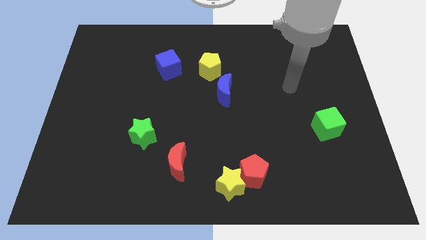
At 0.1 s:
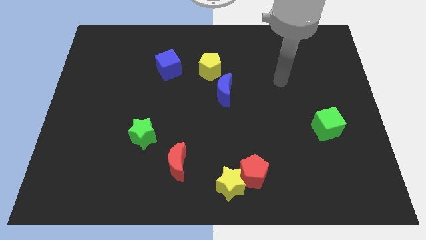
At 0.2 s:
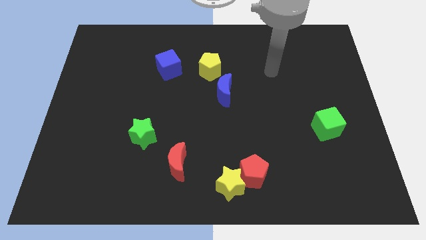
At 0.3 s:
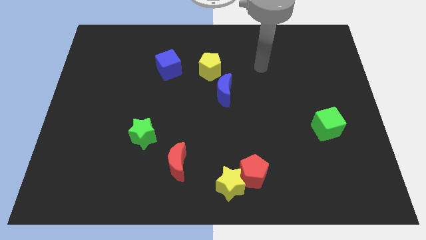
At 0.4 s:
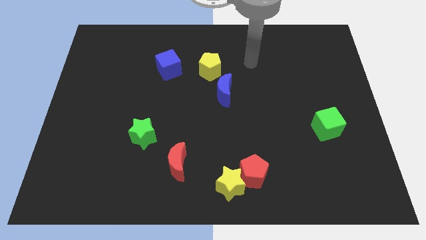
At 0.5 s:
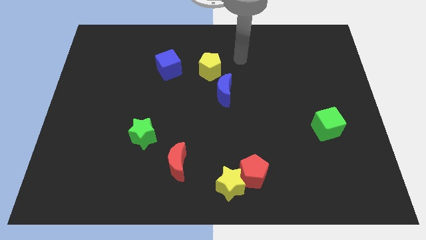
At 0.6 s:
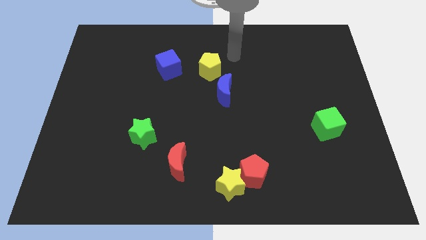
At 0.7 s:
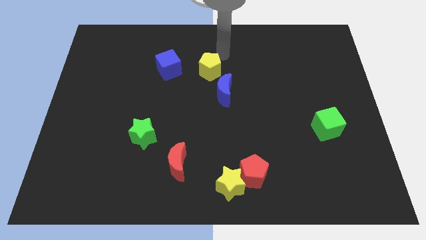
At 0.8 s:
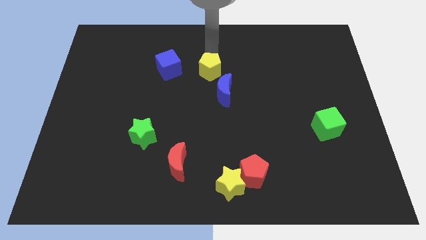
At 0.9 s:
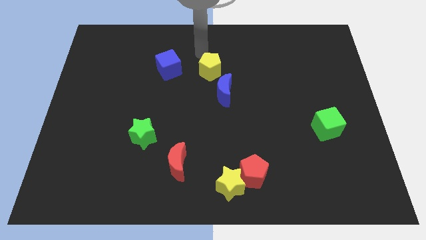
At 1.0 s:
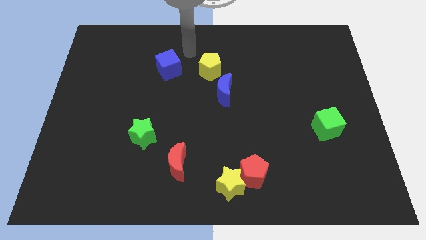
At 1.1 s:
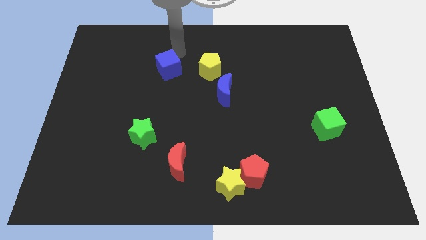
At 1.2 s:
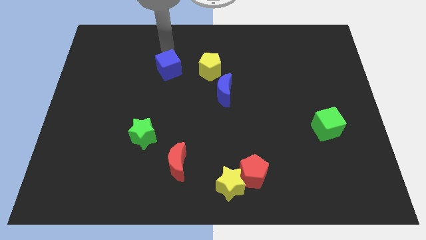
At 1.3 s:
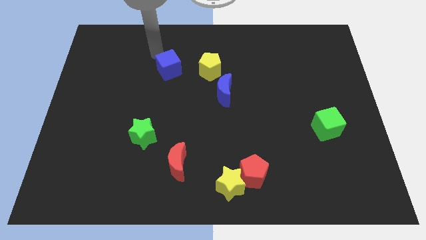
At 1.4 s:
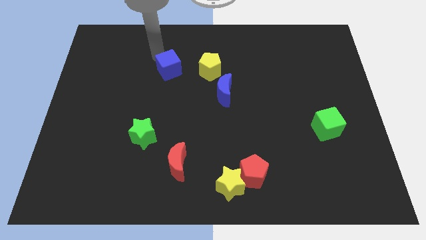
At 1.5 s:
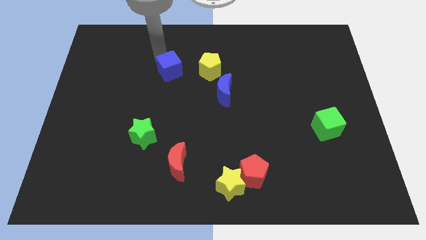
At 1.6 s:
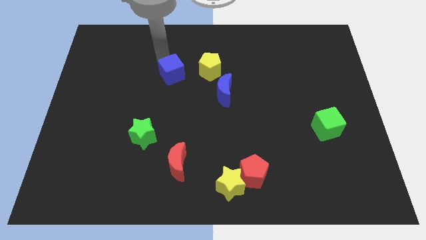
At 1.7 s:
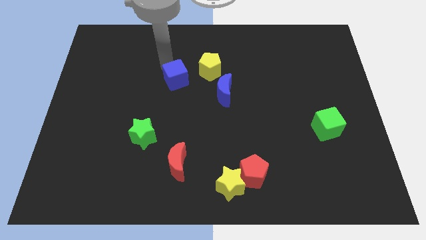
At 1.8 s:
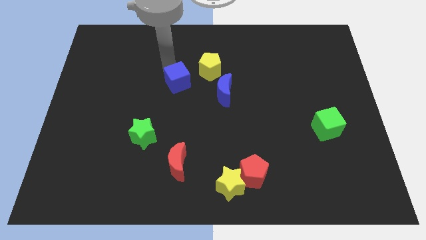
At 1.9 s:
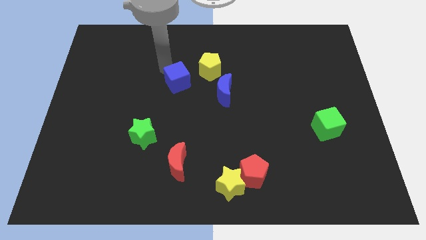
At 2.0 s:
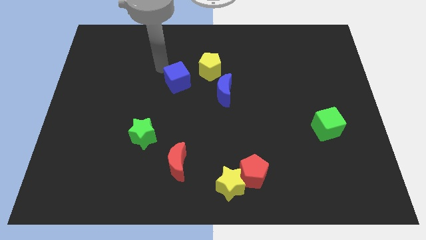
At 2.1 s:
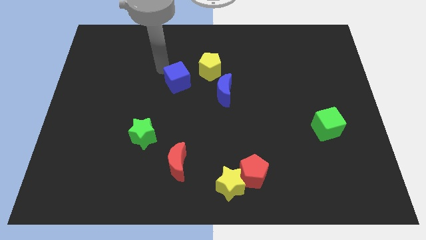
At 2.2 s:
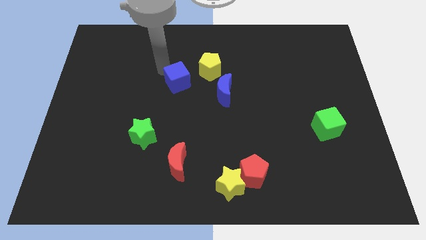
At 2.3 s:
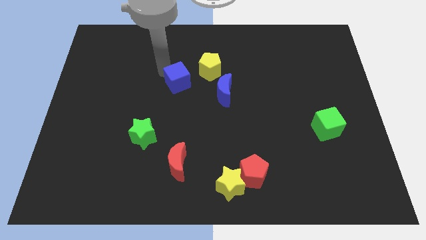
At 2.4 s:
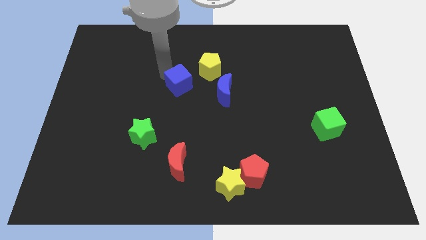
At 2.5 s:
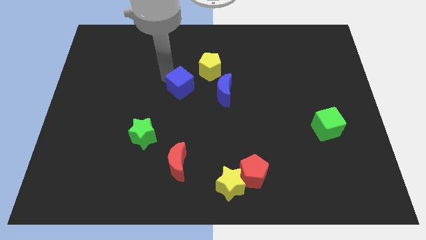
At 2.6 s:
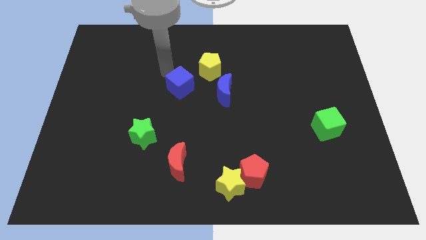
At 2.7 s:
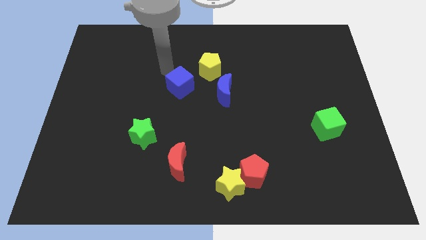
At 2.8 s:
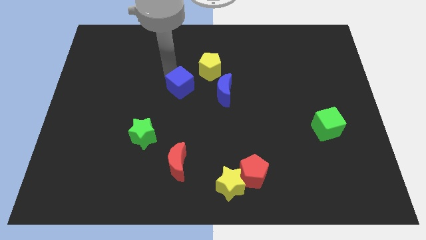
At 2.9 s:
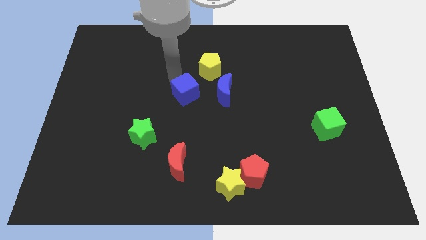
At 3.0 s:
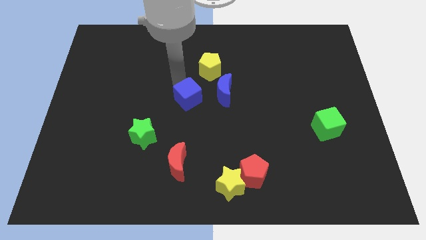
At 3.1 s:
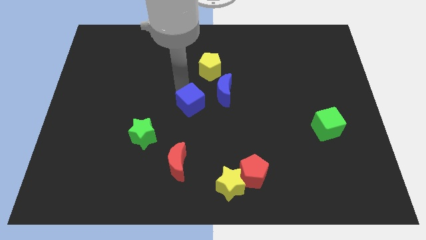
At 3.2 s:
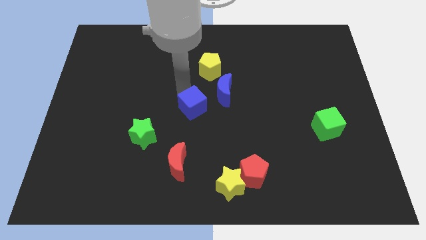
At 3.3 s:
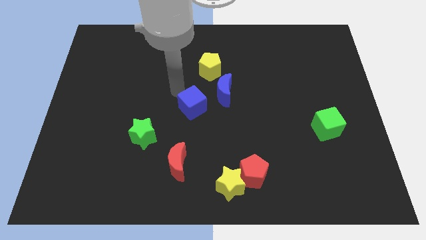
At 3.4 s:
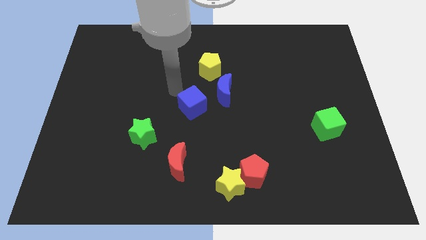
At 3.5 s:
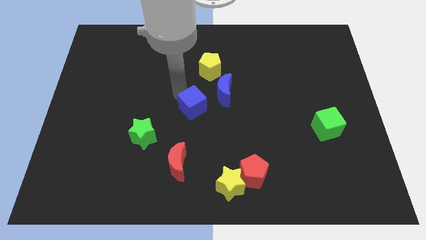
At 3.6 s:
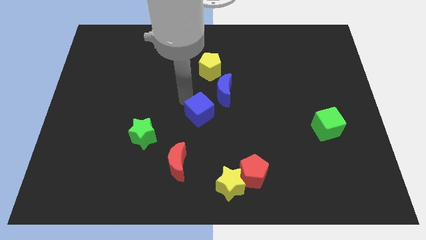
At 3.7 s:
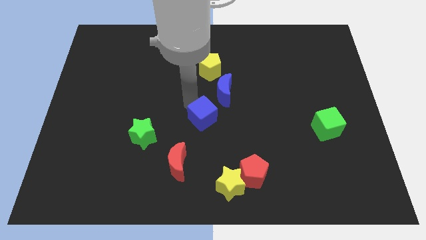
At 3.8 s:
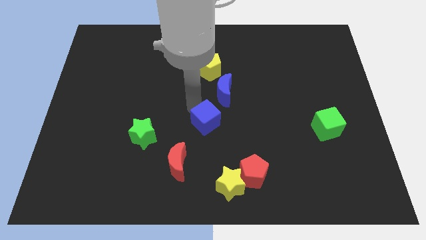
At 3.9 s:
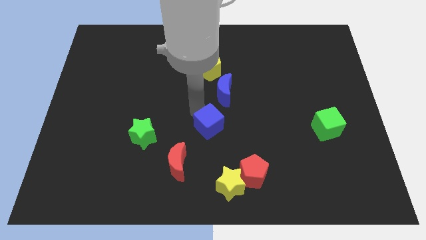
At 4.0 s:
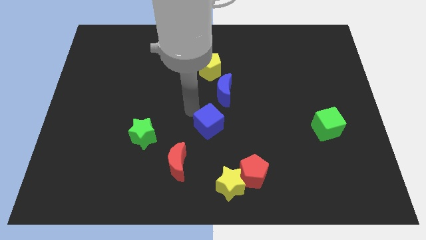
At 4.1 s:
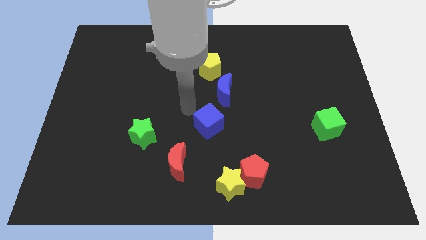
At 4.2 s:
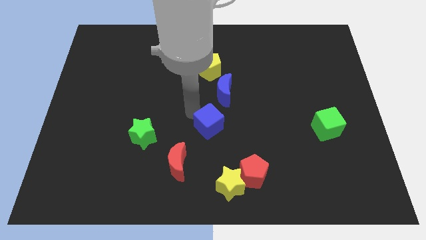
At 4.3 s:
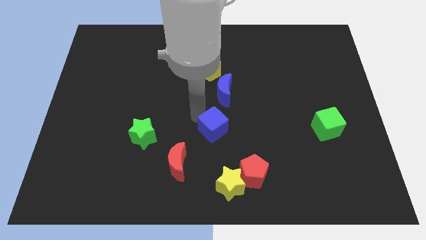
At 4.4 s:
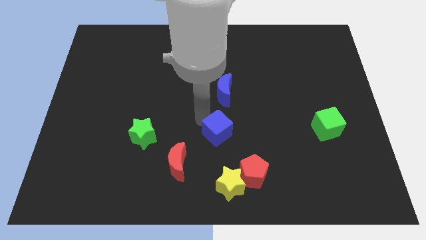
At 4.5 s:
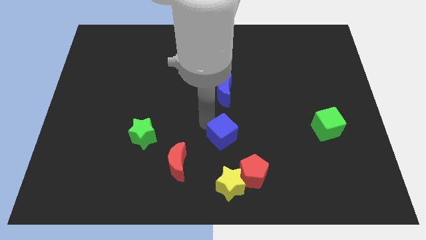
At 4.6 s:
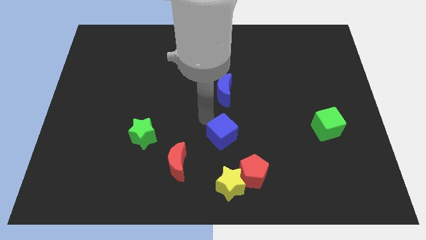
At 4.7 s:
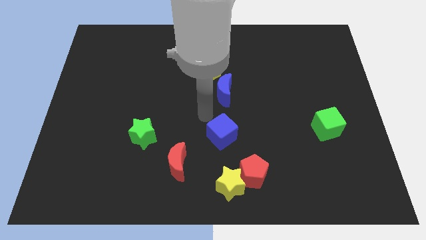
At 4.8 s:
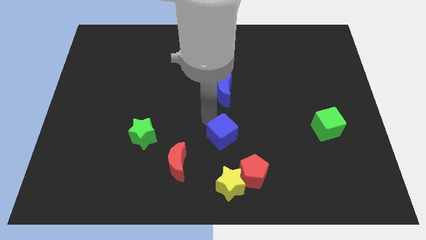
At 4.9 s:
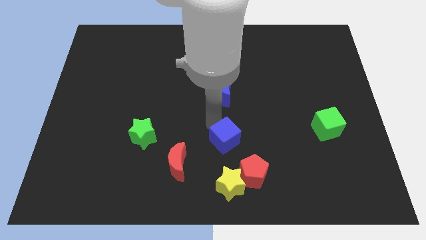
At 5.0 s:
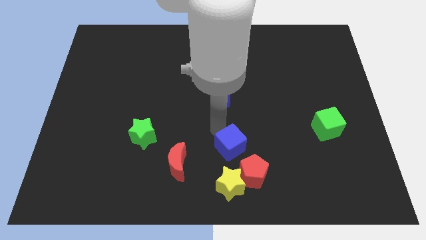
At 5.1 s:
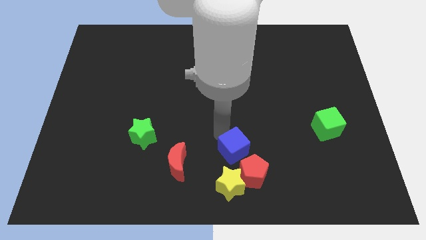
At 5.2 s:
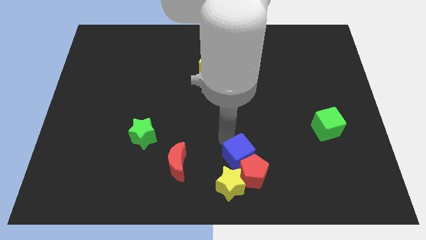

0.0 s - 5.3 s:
push the blue cube to the red pentagon

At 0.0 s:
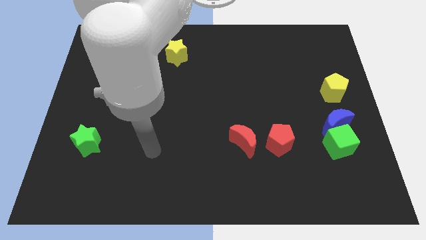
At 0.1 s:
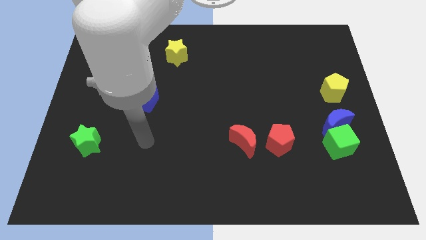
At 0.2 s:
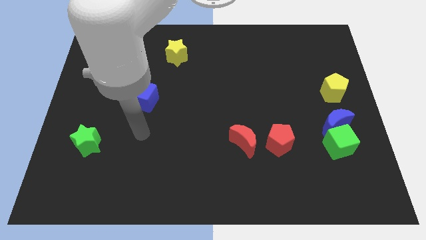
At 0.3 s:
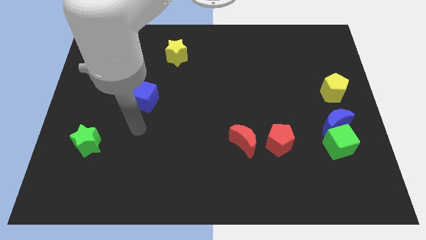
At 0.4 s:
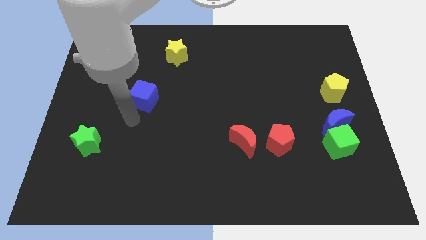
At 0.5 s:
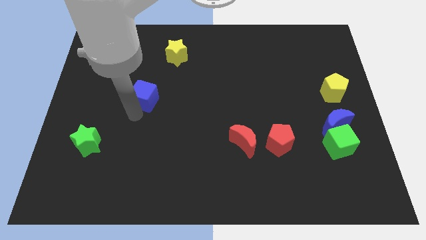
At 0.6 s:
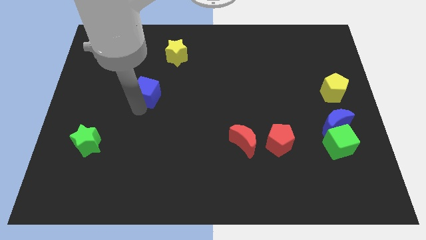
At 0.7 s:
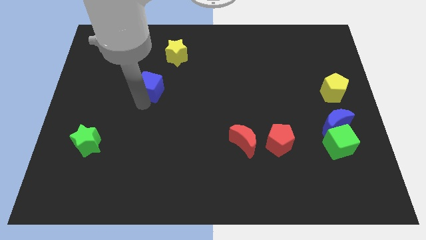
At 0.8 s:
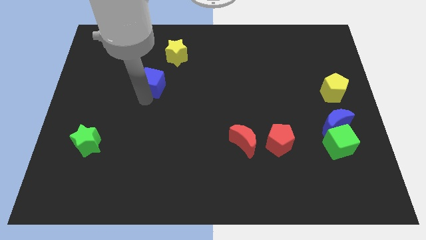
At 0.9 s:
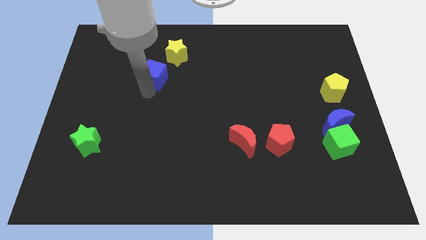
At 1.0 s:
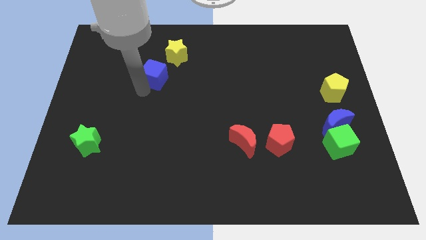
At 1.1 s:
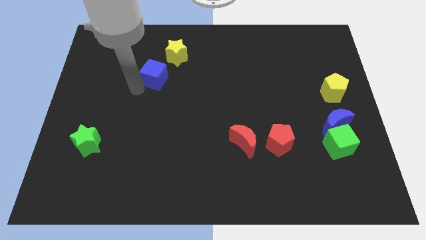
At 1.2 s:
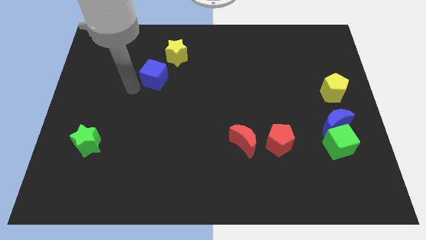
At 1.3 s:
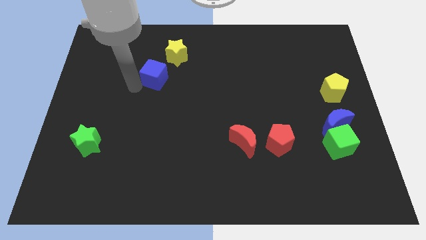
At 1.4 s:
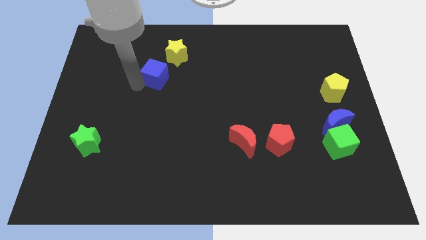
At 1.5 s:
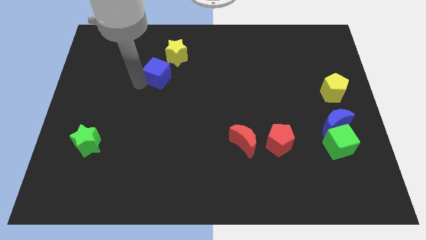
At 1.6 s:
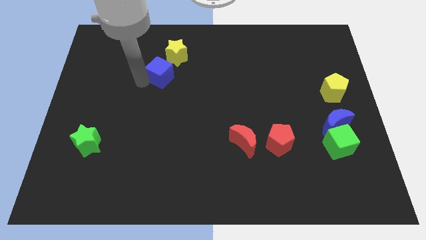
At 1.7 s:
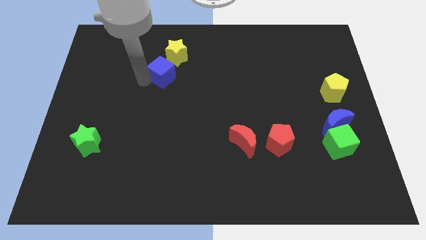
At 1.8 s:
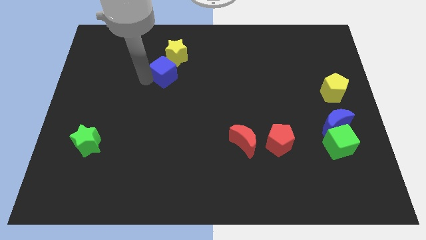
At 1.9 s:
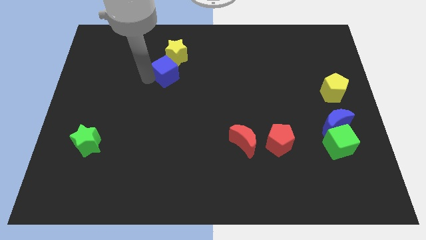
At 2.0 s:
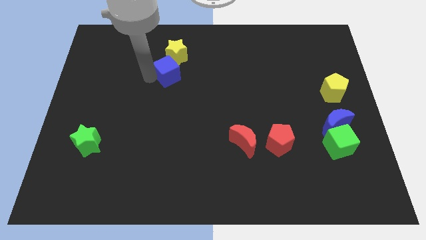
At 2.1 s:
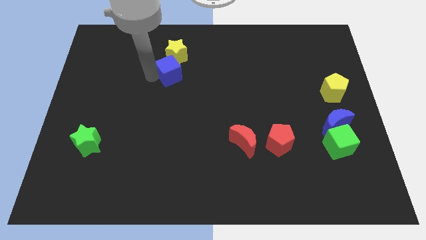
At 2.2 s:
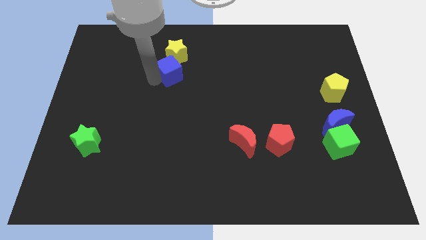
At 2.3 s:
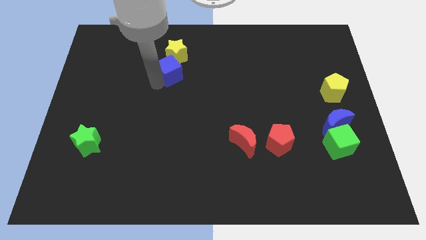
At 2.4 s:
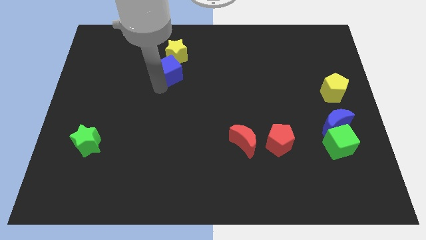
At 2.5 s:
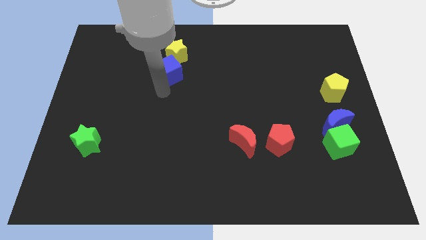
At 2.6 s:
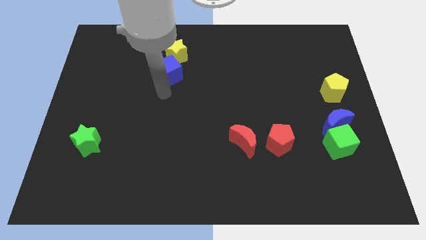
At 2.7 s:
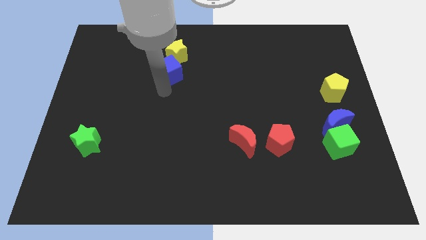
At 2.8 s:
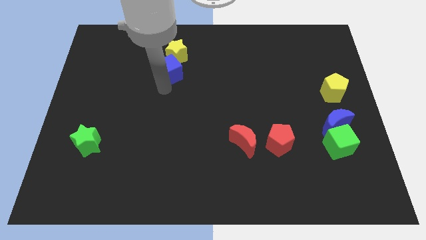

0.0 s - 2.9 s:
slide the blue cube next to the yellow star

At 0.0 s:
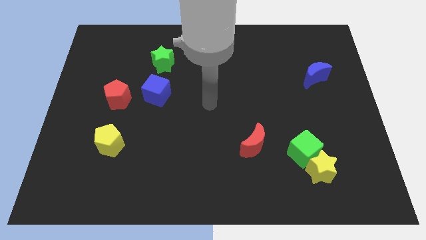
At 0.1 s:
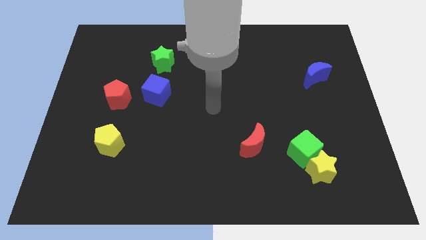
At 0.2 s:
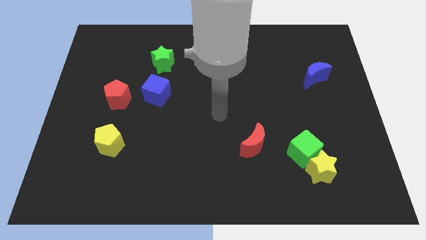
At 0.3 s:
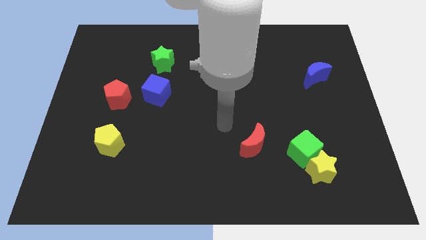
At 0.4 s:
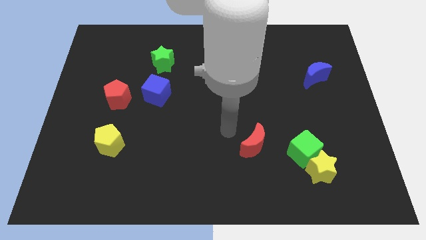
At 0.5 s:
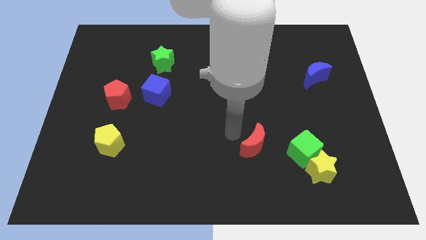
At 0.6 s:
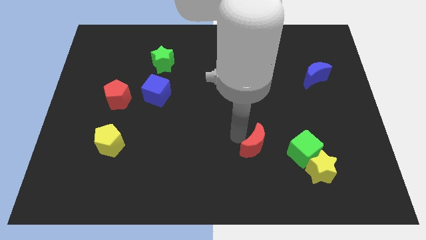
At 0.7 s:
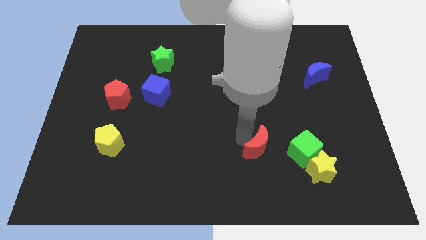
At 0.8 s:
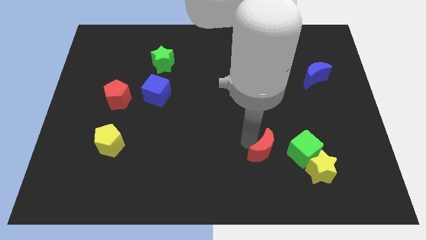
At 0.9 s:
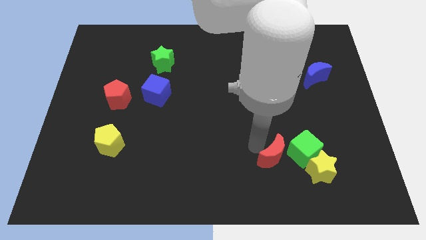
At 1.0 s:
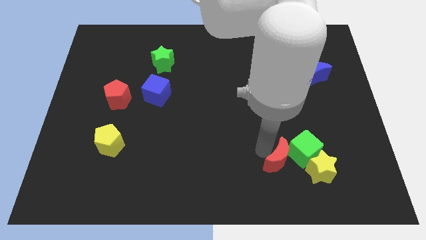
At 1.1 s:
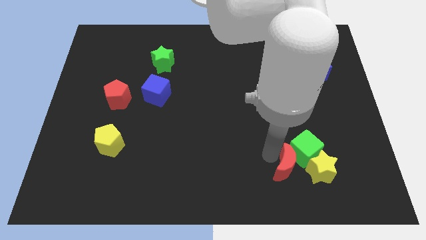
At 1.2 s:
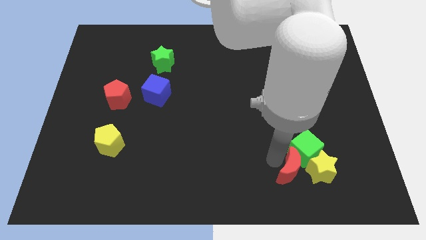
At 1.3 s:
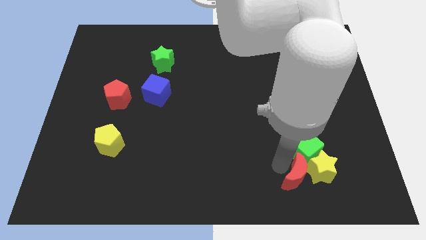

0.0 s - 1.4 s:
put the red moon close to the yellow star
